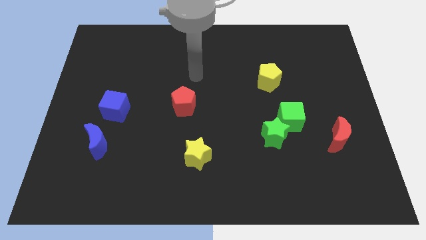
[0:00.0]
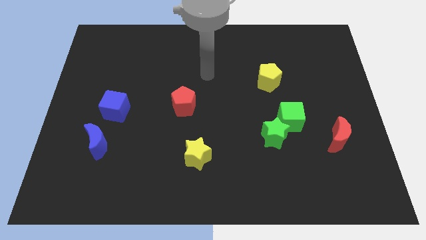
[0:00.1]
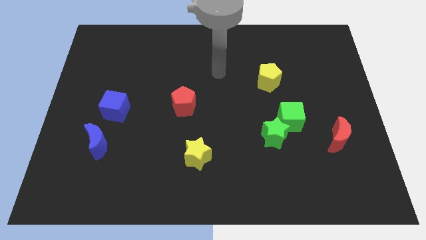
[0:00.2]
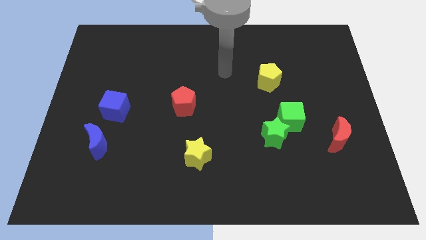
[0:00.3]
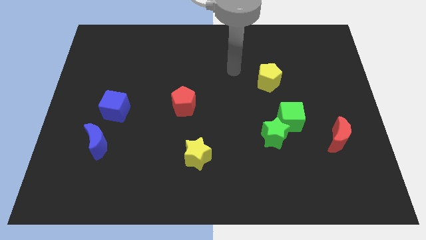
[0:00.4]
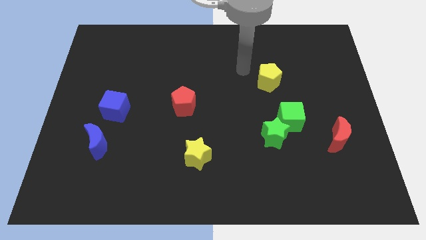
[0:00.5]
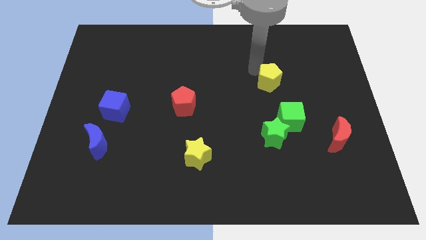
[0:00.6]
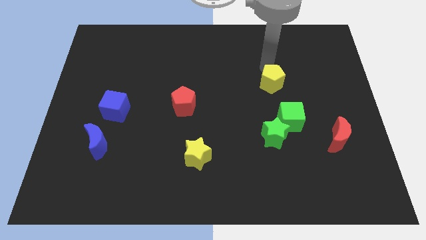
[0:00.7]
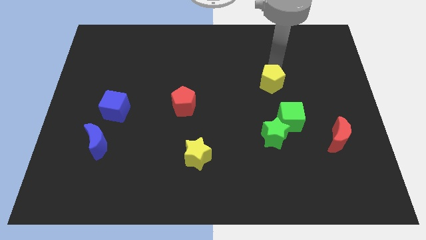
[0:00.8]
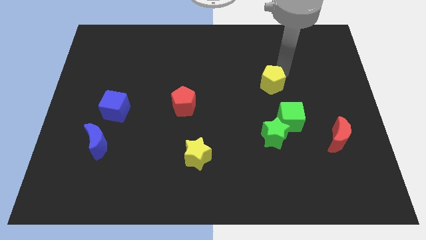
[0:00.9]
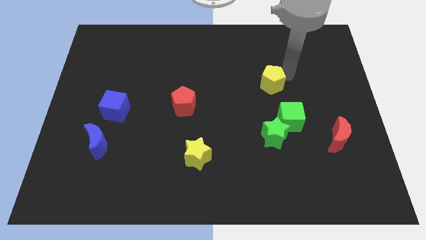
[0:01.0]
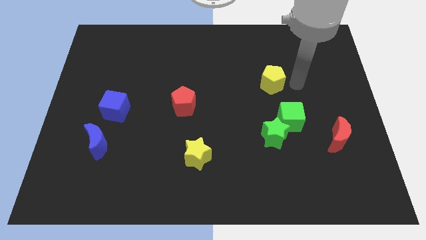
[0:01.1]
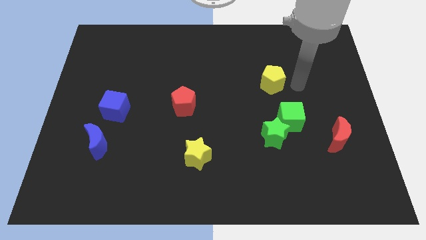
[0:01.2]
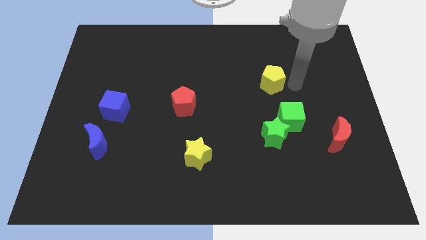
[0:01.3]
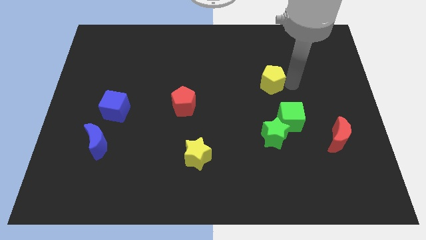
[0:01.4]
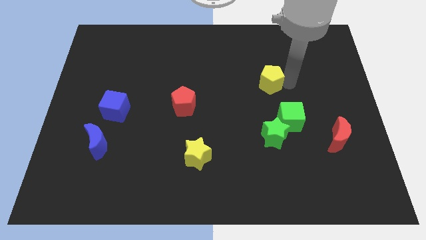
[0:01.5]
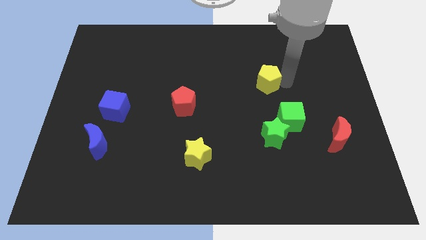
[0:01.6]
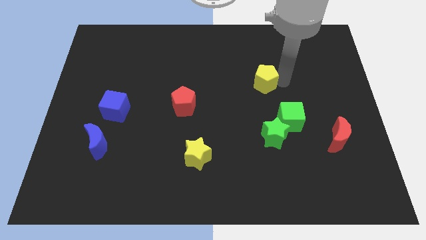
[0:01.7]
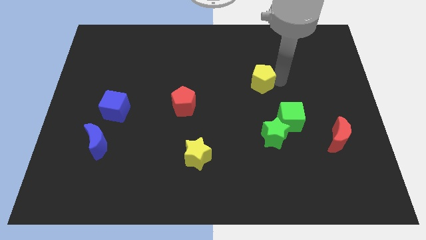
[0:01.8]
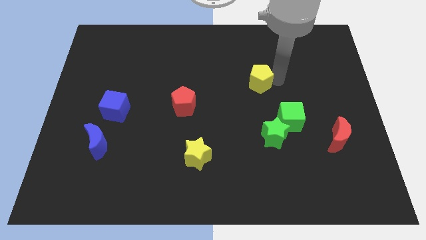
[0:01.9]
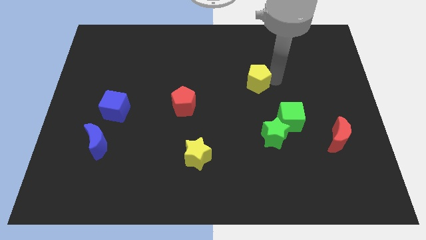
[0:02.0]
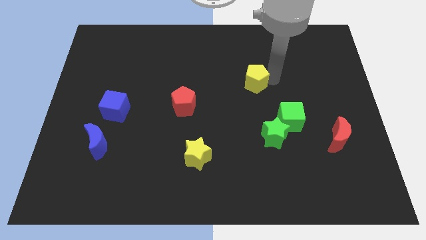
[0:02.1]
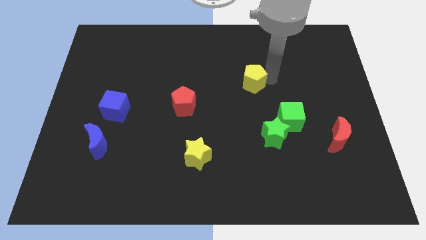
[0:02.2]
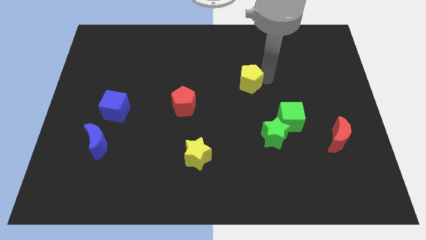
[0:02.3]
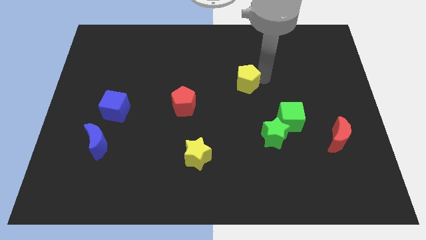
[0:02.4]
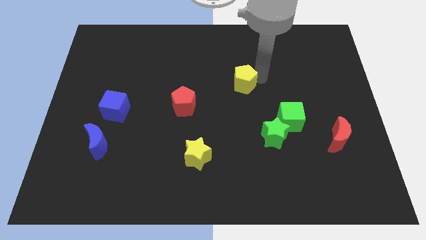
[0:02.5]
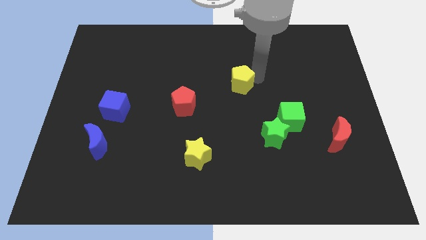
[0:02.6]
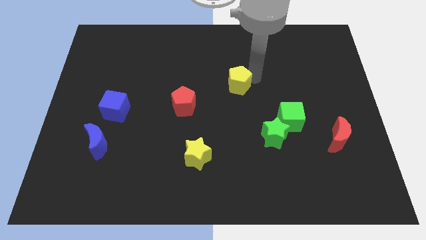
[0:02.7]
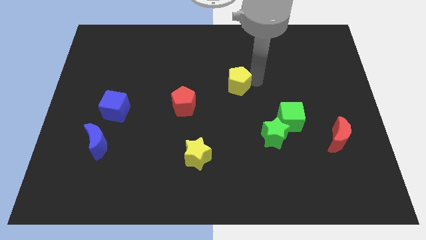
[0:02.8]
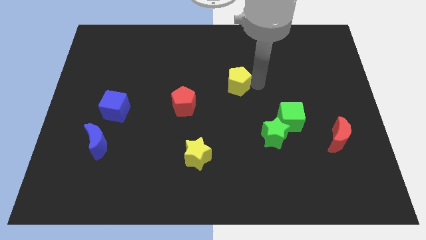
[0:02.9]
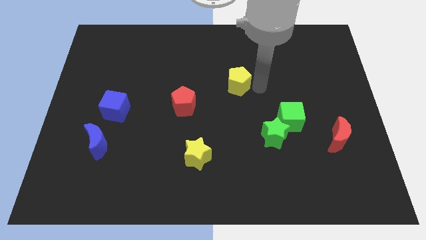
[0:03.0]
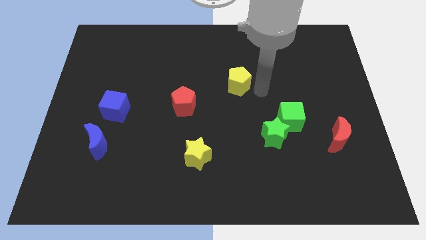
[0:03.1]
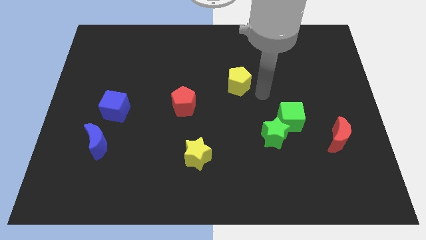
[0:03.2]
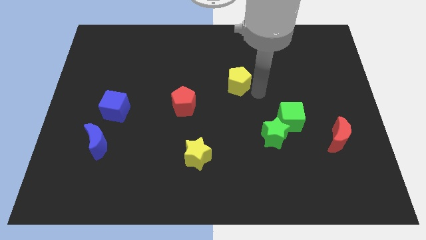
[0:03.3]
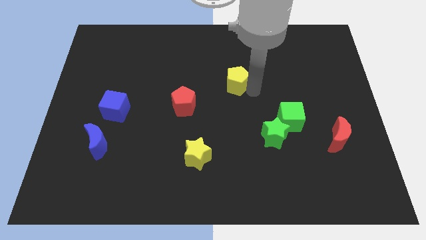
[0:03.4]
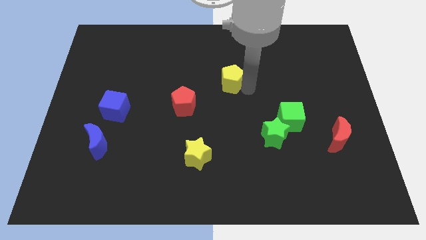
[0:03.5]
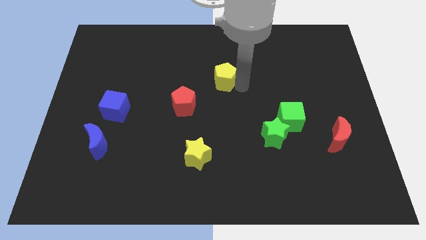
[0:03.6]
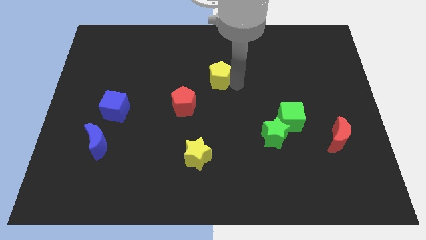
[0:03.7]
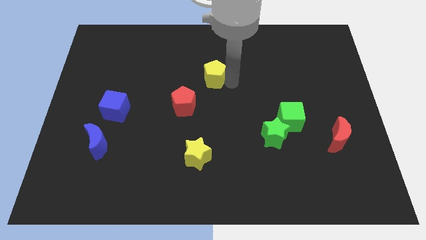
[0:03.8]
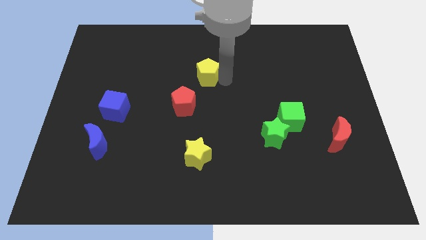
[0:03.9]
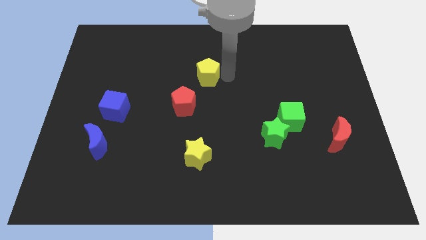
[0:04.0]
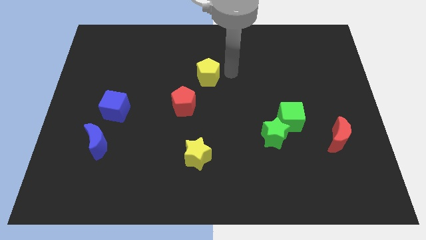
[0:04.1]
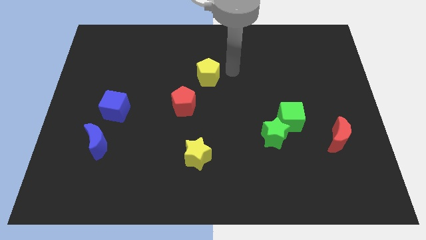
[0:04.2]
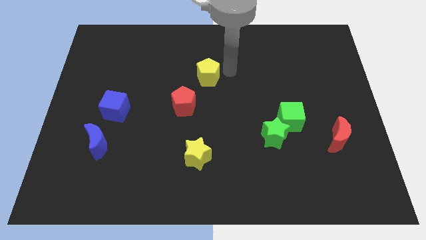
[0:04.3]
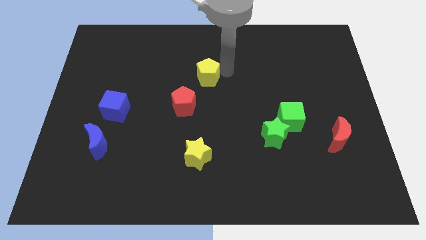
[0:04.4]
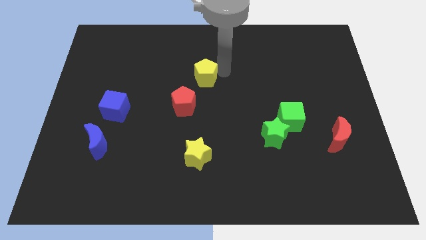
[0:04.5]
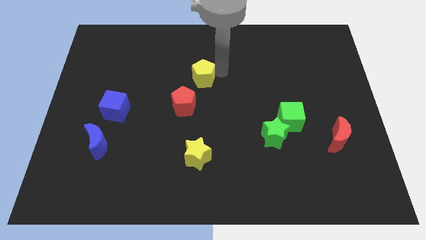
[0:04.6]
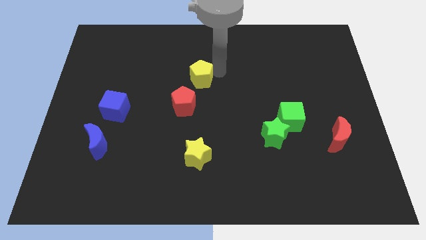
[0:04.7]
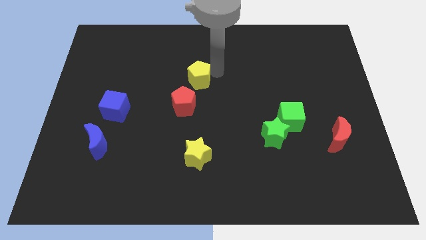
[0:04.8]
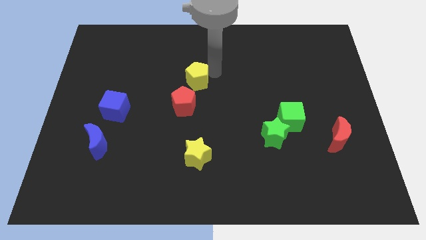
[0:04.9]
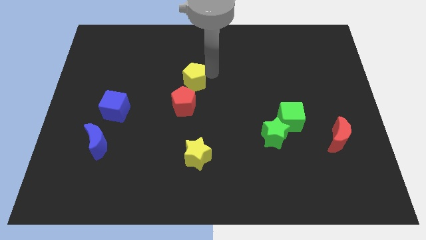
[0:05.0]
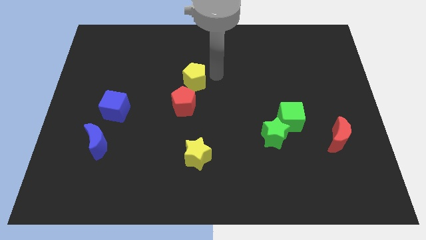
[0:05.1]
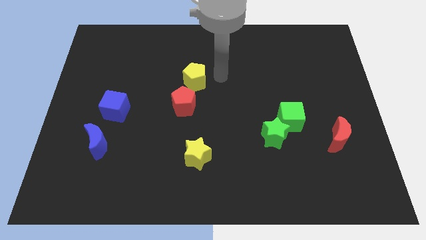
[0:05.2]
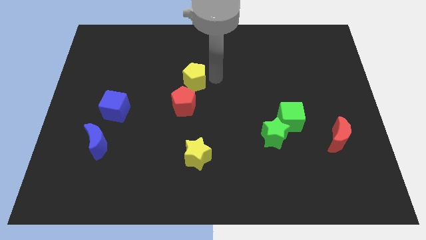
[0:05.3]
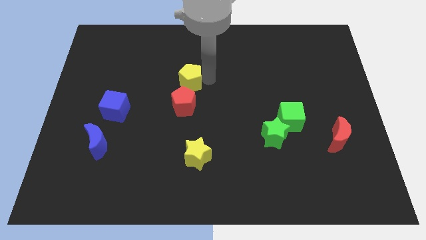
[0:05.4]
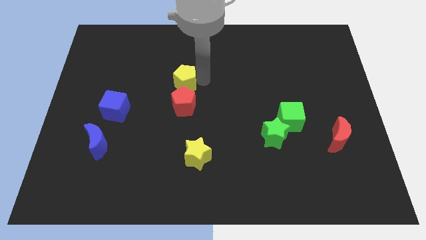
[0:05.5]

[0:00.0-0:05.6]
move the yellow pentagon left

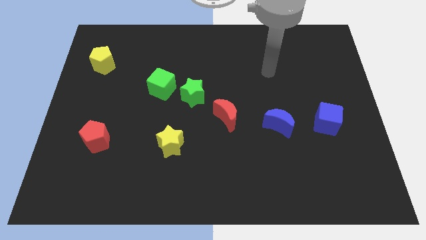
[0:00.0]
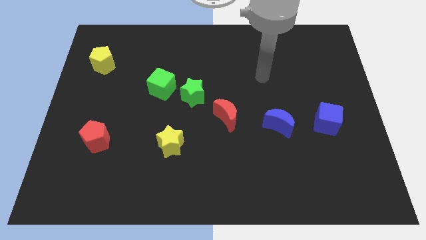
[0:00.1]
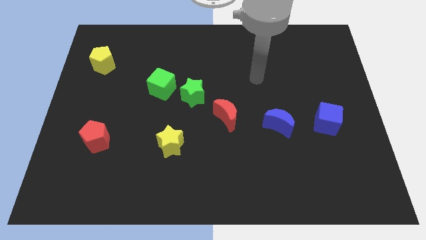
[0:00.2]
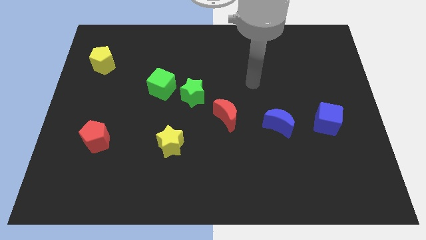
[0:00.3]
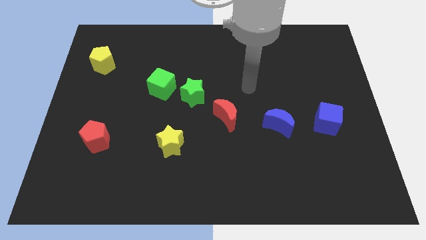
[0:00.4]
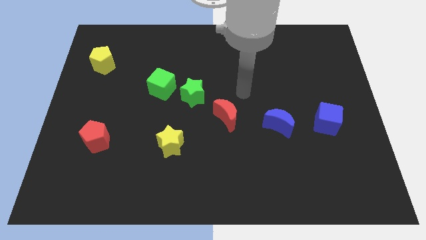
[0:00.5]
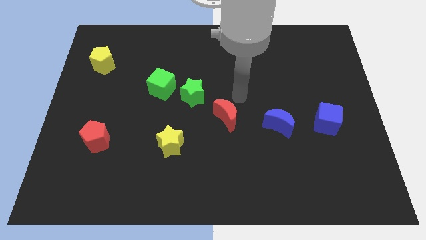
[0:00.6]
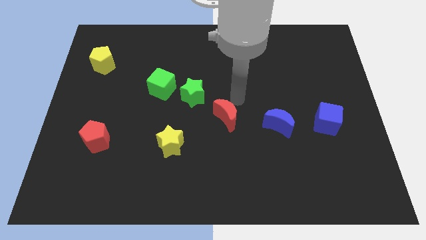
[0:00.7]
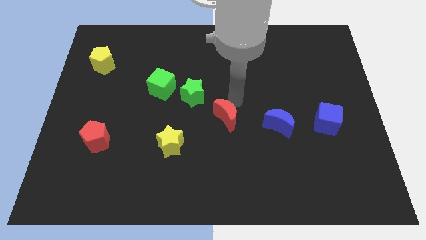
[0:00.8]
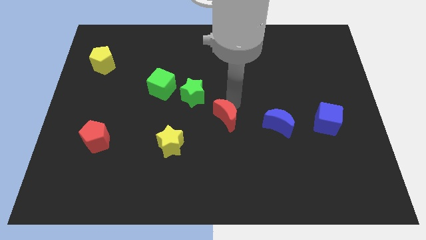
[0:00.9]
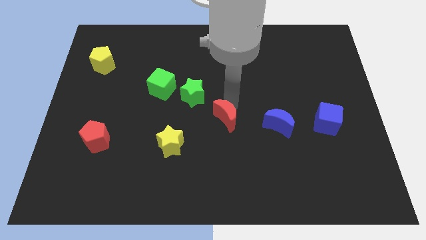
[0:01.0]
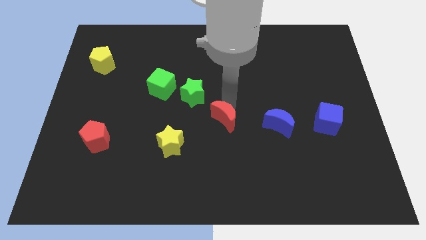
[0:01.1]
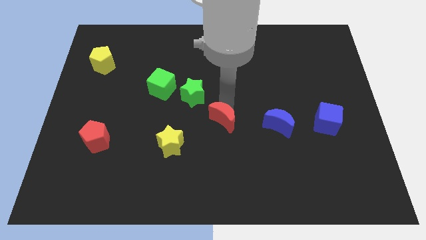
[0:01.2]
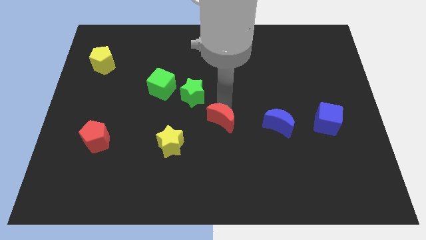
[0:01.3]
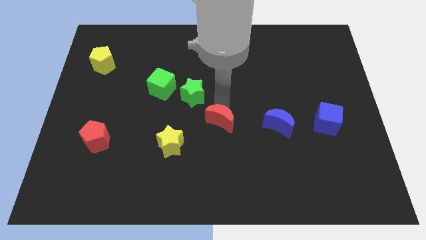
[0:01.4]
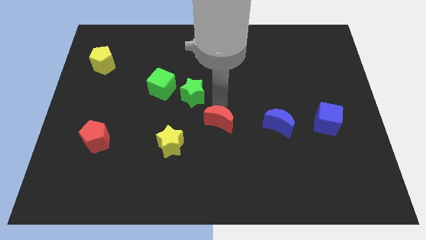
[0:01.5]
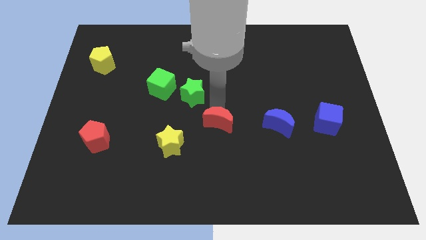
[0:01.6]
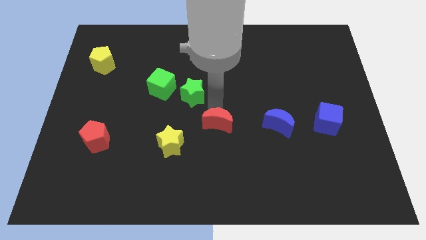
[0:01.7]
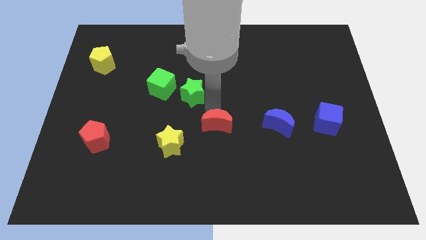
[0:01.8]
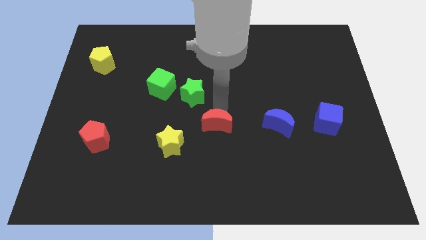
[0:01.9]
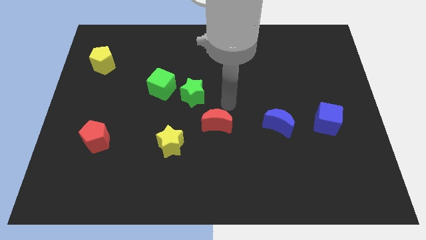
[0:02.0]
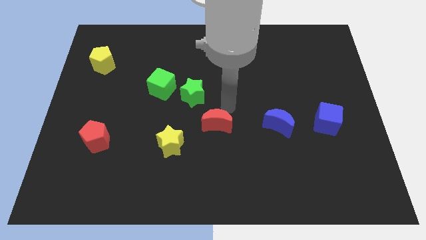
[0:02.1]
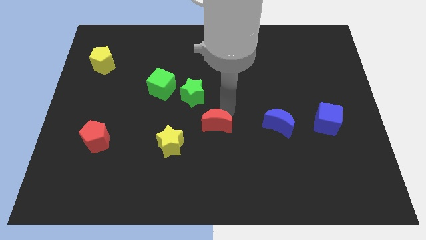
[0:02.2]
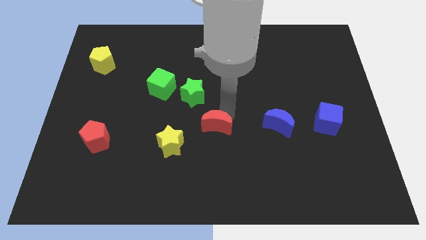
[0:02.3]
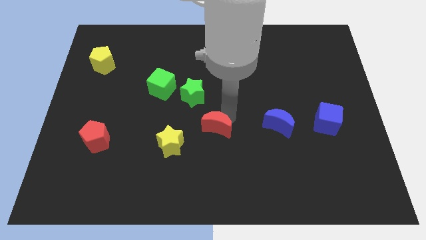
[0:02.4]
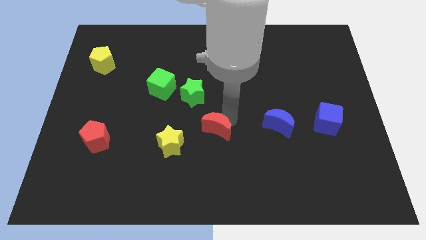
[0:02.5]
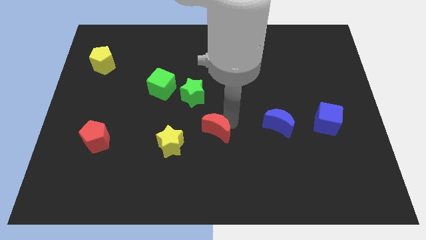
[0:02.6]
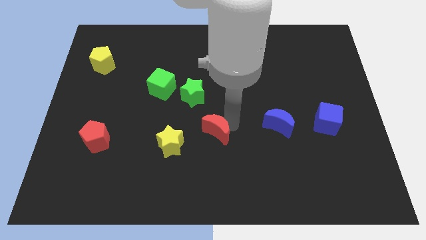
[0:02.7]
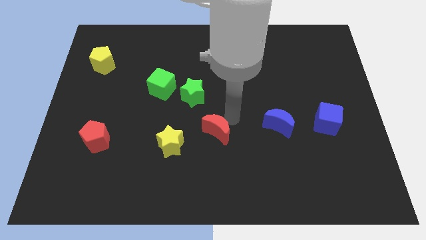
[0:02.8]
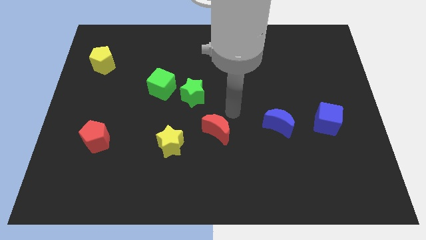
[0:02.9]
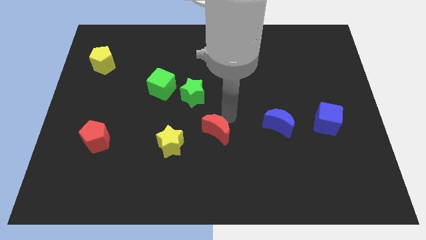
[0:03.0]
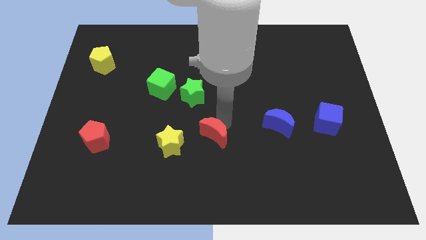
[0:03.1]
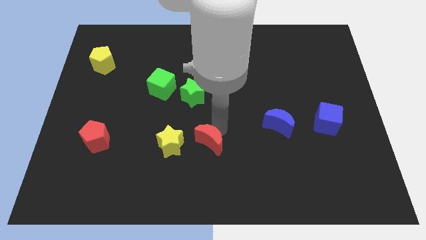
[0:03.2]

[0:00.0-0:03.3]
move the red moon downwards and to the left diagonally somewhat
